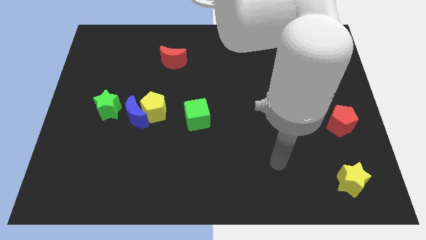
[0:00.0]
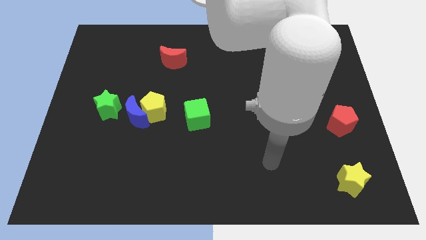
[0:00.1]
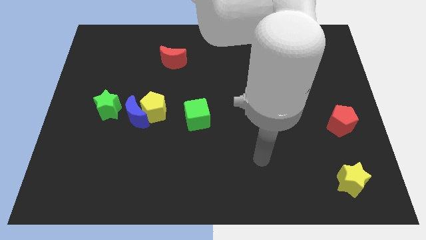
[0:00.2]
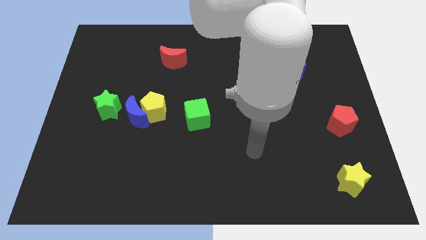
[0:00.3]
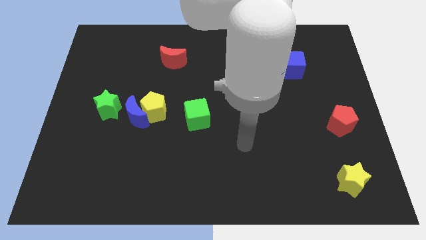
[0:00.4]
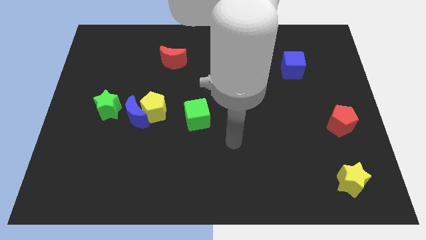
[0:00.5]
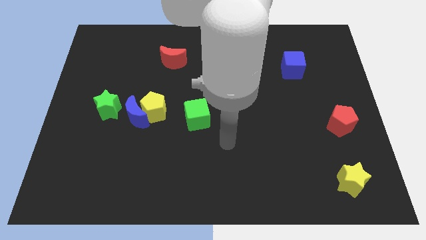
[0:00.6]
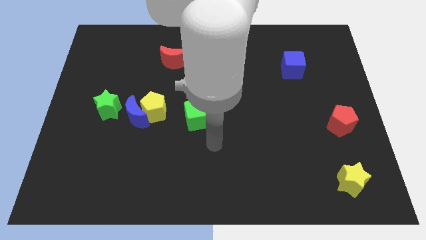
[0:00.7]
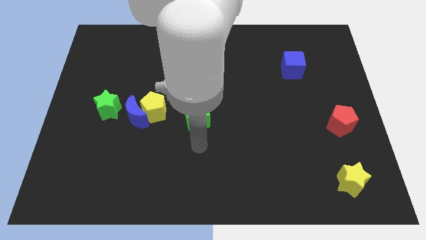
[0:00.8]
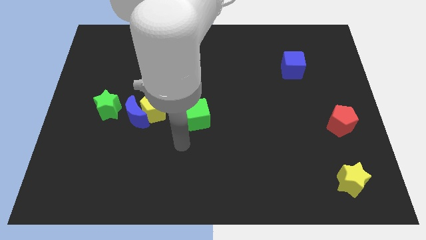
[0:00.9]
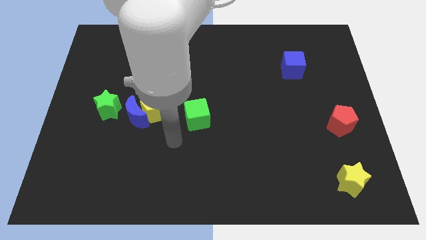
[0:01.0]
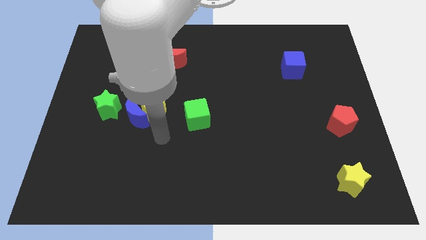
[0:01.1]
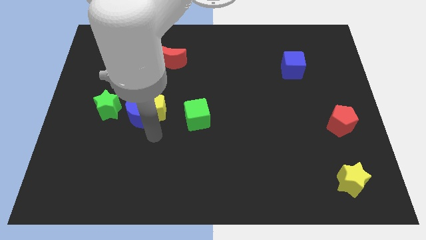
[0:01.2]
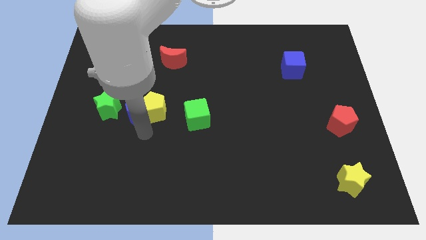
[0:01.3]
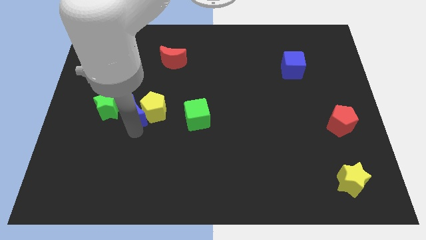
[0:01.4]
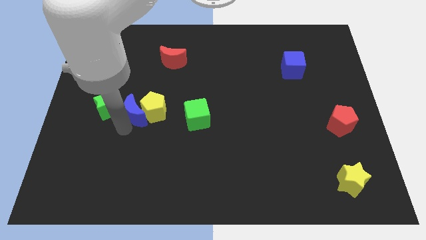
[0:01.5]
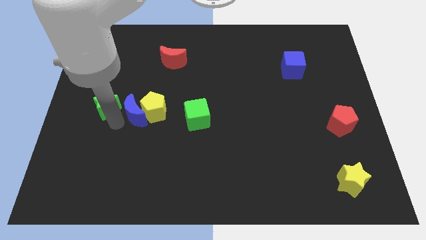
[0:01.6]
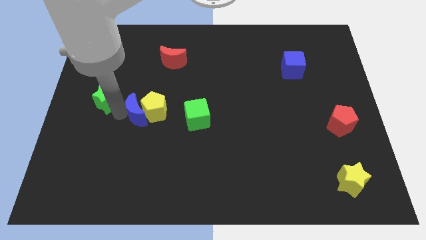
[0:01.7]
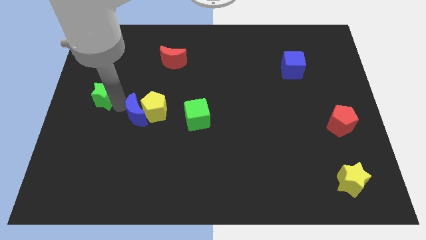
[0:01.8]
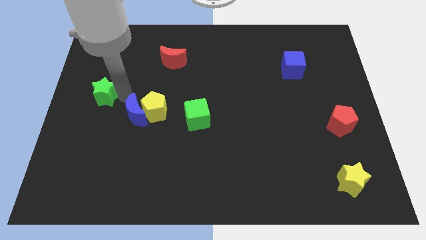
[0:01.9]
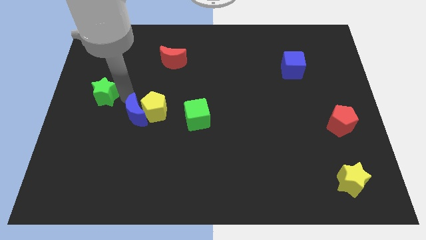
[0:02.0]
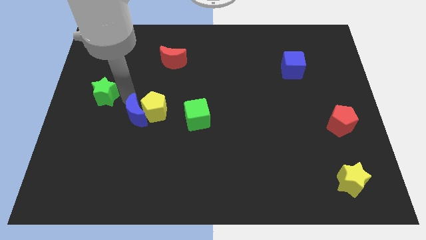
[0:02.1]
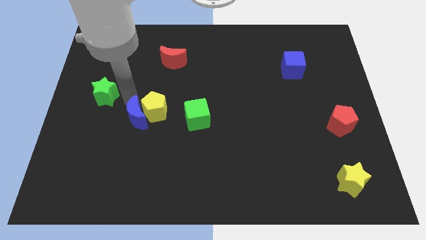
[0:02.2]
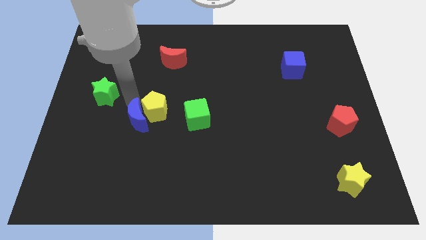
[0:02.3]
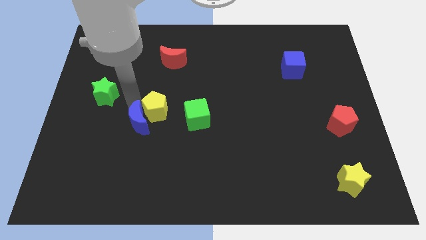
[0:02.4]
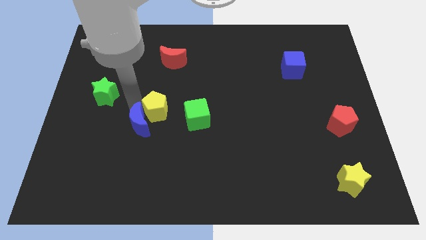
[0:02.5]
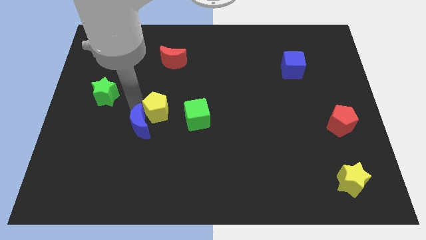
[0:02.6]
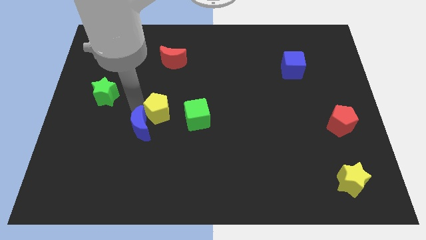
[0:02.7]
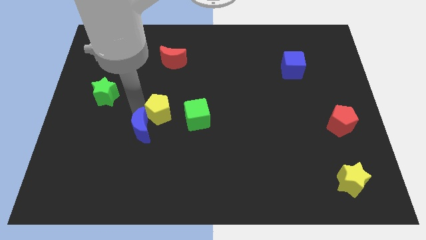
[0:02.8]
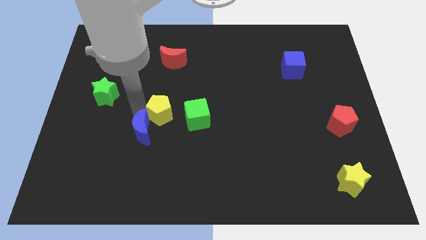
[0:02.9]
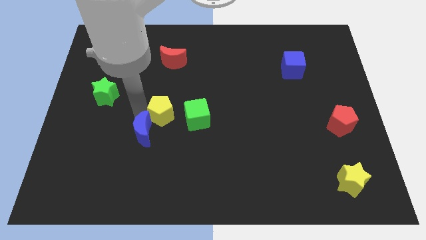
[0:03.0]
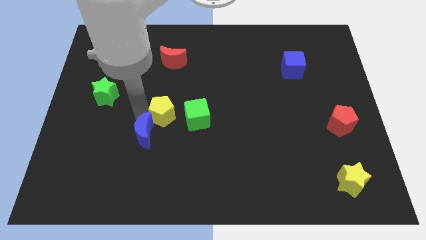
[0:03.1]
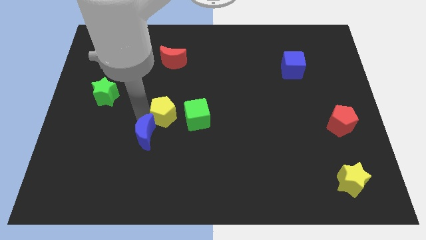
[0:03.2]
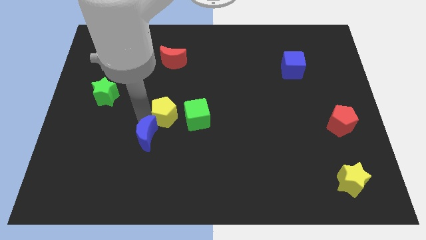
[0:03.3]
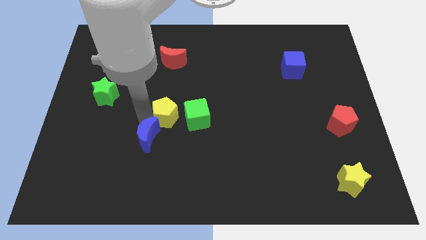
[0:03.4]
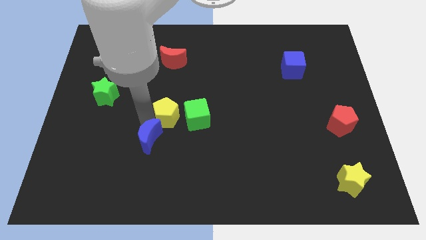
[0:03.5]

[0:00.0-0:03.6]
move the blue moon away from the yellow pentagon and green star

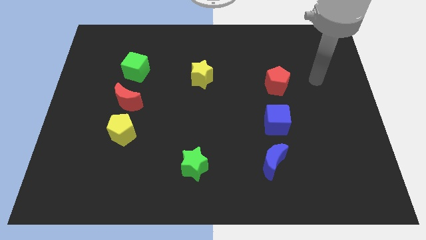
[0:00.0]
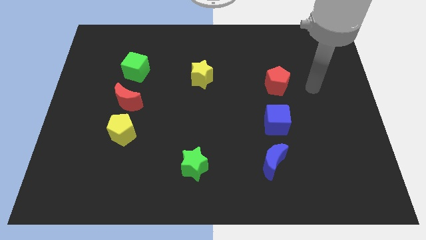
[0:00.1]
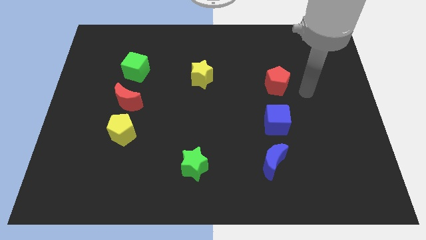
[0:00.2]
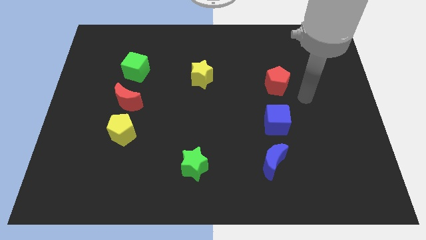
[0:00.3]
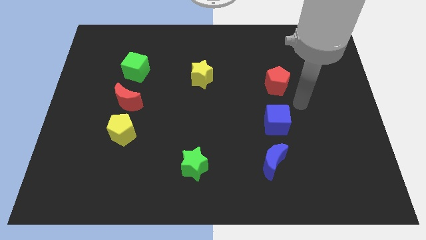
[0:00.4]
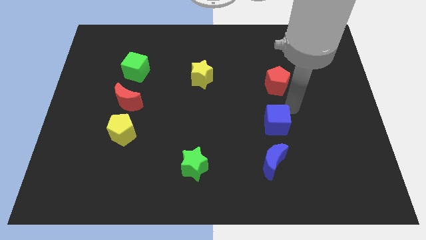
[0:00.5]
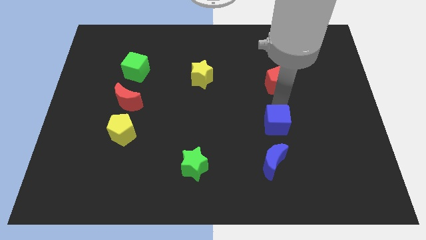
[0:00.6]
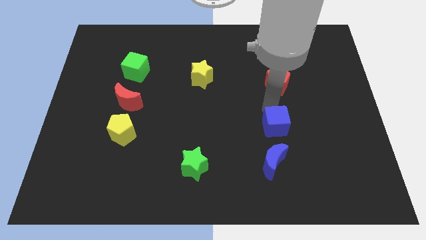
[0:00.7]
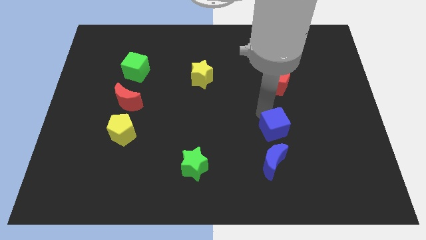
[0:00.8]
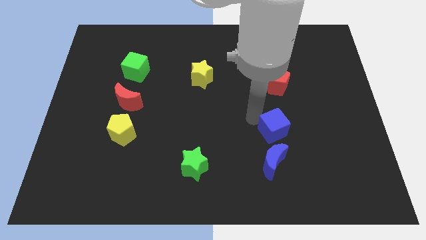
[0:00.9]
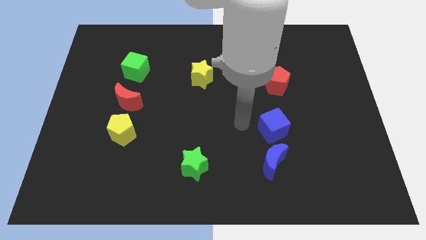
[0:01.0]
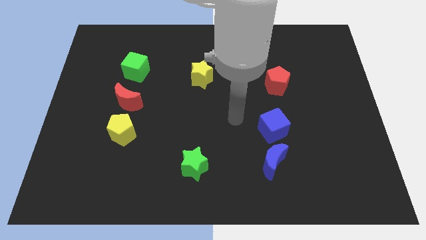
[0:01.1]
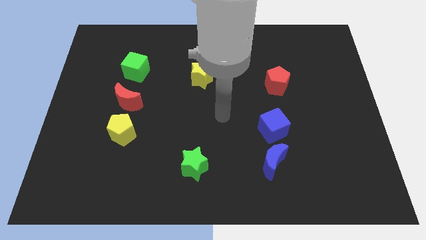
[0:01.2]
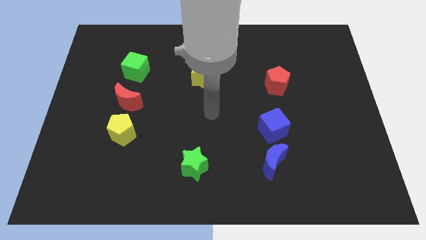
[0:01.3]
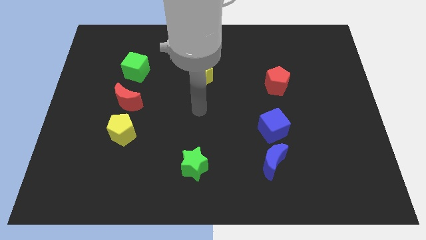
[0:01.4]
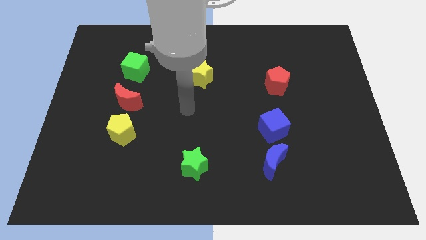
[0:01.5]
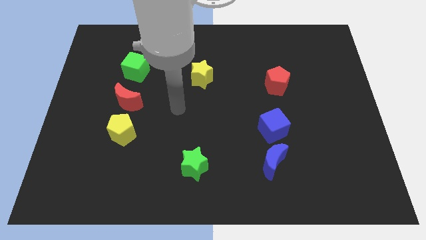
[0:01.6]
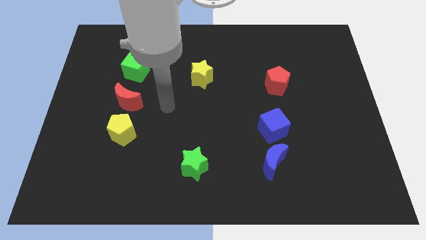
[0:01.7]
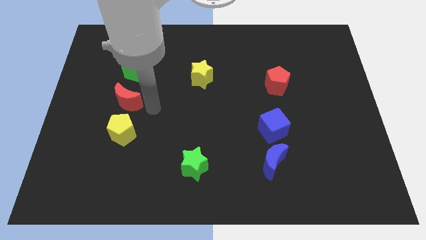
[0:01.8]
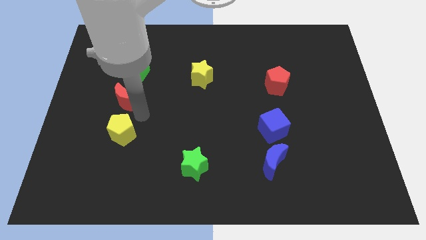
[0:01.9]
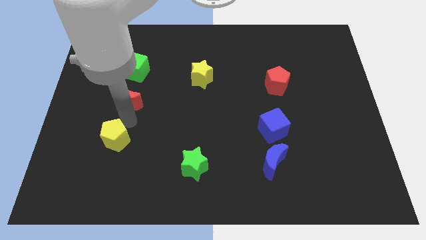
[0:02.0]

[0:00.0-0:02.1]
separate the red moon from the yellow pentagon

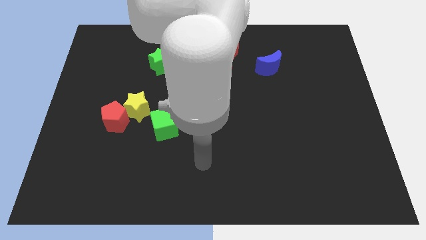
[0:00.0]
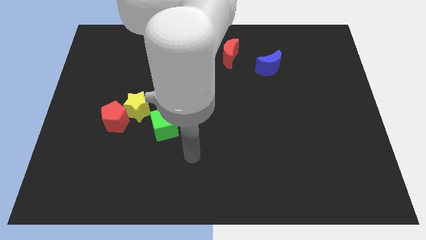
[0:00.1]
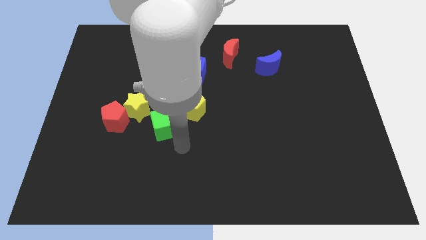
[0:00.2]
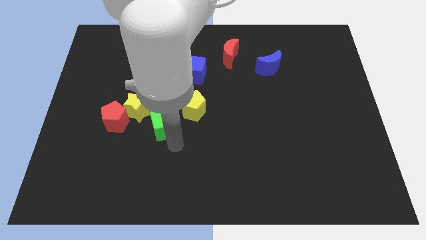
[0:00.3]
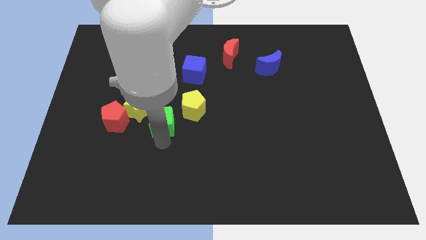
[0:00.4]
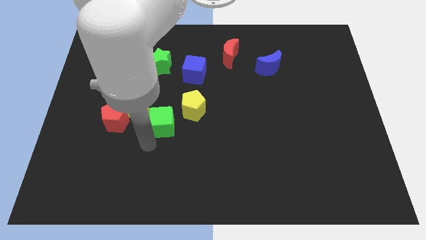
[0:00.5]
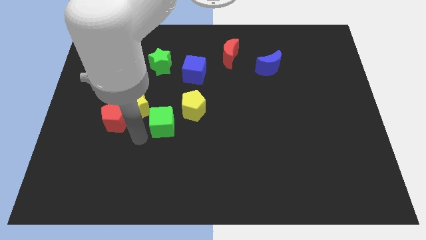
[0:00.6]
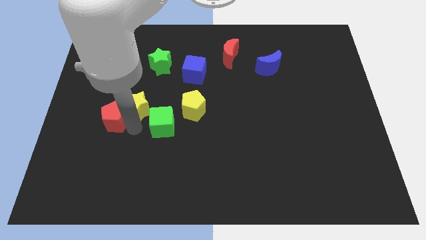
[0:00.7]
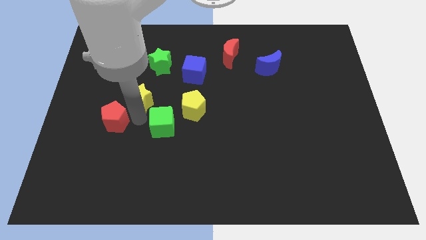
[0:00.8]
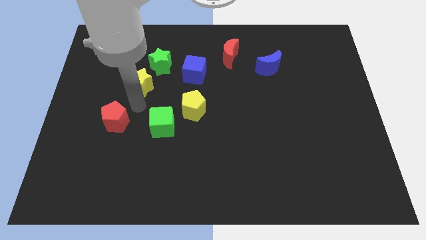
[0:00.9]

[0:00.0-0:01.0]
pull the red pentagon apart from the yellow star

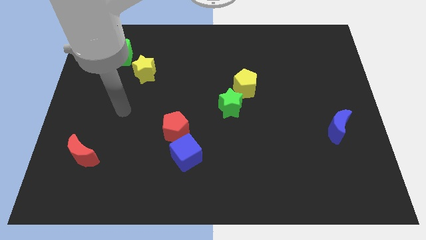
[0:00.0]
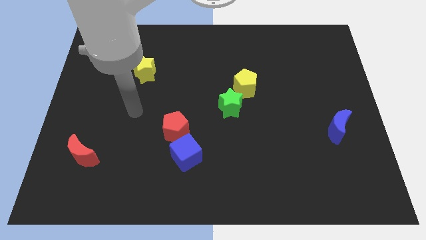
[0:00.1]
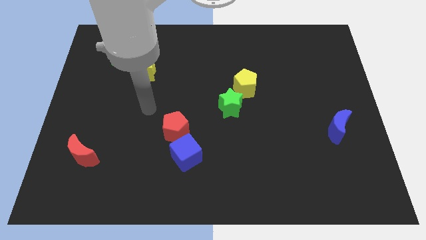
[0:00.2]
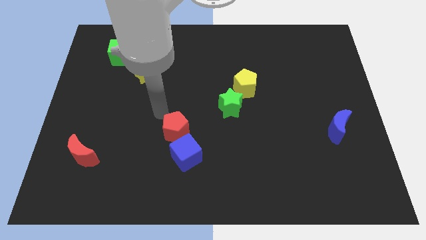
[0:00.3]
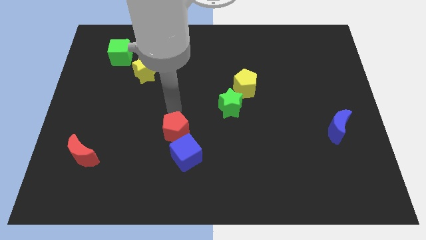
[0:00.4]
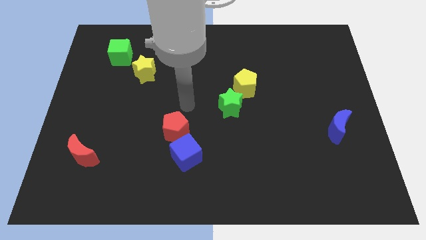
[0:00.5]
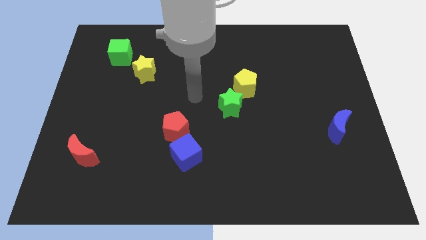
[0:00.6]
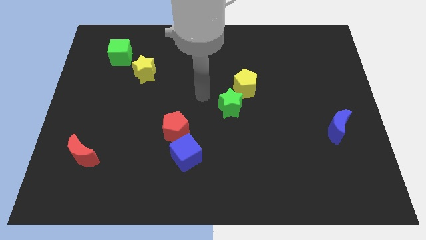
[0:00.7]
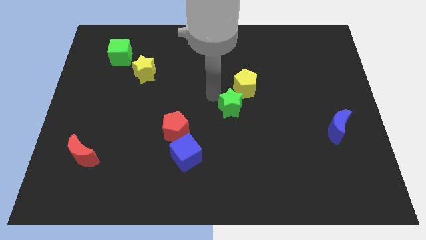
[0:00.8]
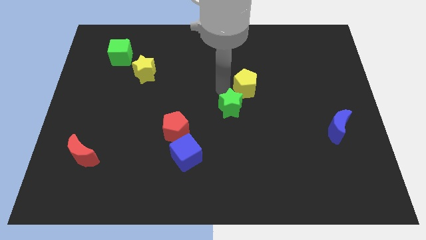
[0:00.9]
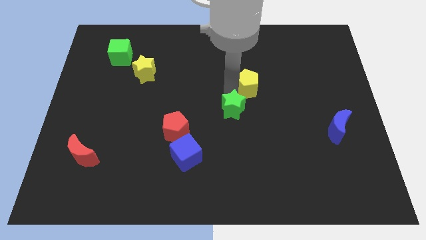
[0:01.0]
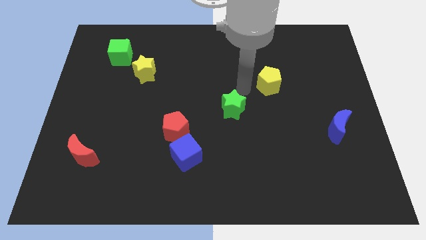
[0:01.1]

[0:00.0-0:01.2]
pull the green star apart from the yellow pentagon

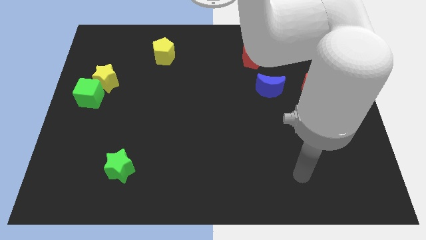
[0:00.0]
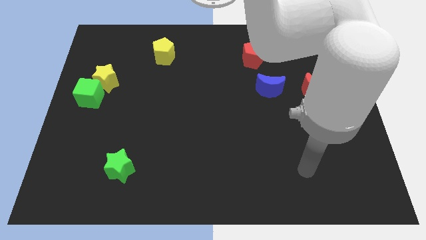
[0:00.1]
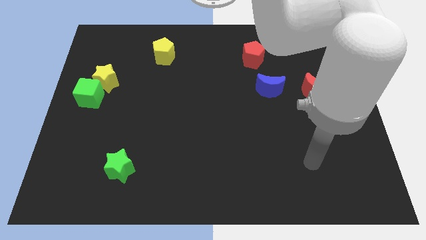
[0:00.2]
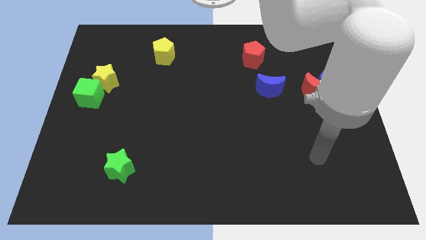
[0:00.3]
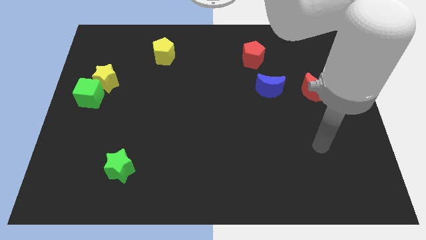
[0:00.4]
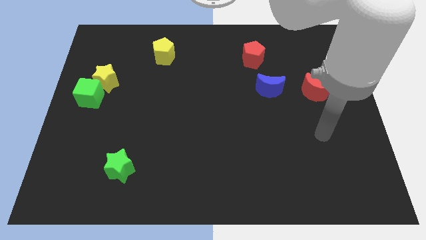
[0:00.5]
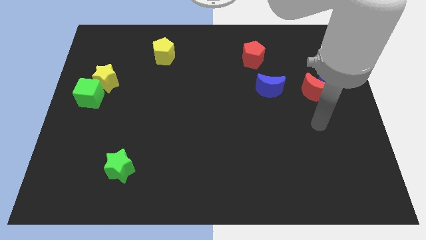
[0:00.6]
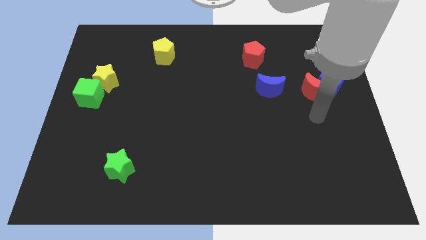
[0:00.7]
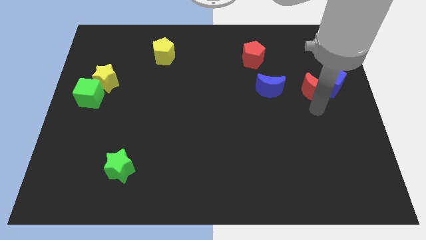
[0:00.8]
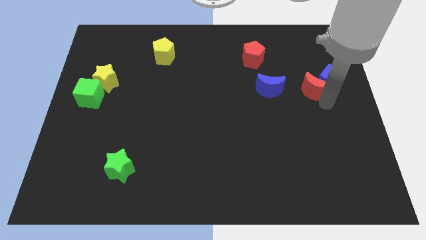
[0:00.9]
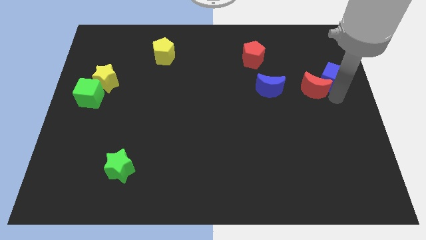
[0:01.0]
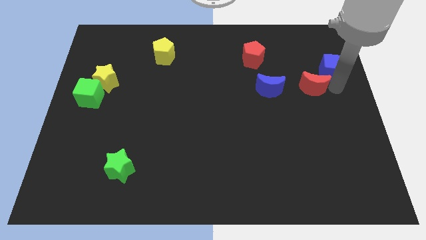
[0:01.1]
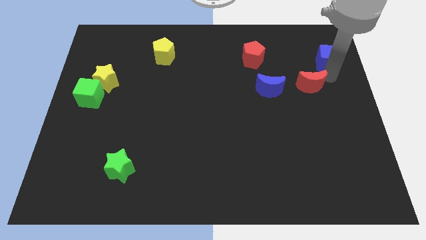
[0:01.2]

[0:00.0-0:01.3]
pull the red moon apart from the blue cube
